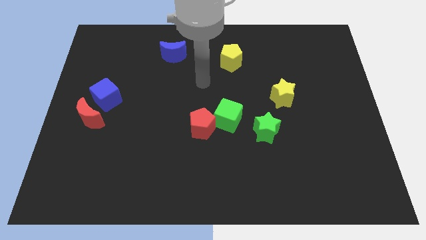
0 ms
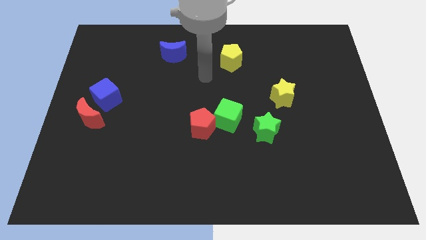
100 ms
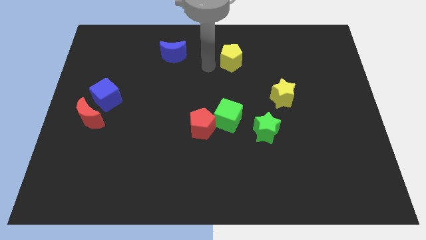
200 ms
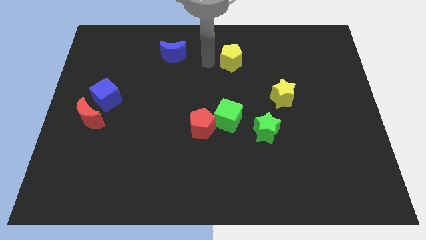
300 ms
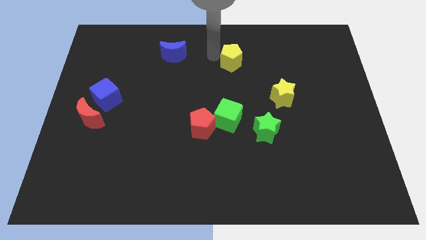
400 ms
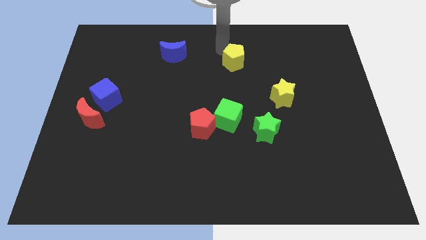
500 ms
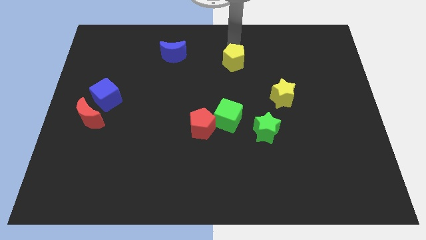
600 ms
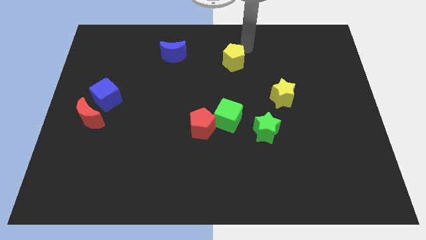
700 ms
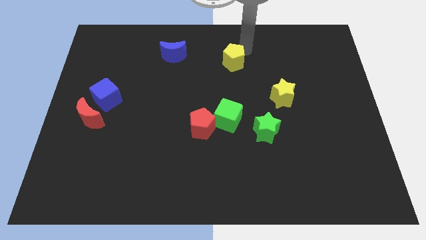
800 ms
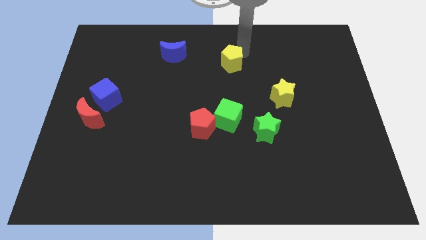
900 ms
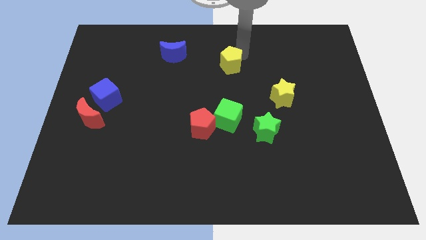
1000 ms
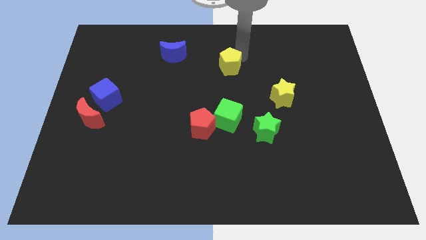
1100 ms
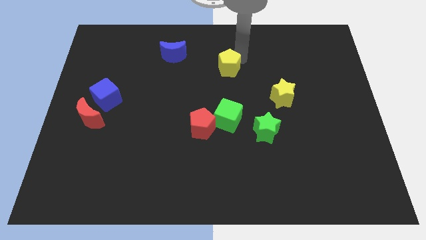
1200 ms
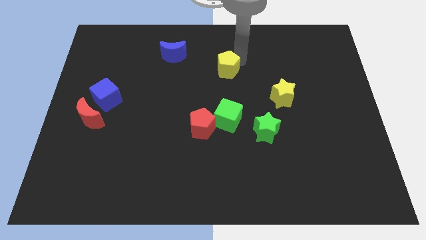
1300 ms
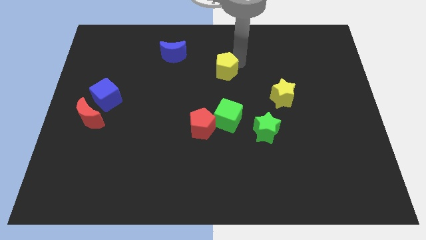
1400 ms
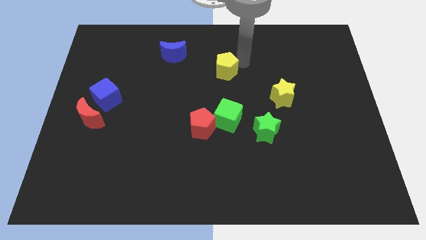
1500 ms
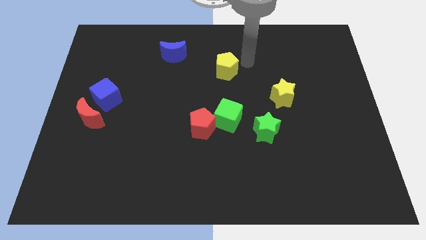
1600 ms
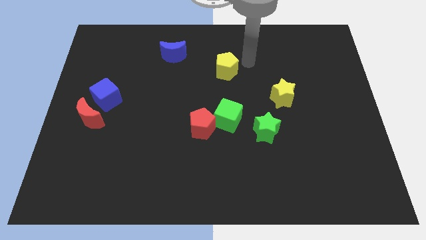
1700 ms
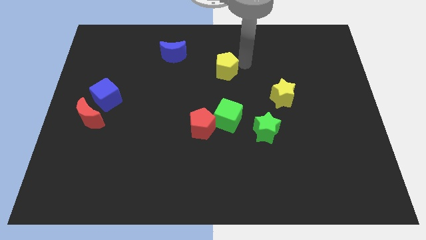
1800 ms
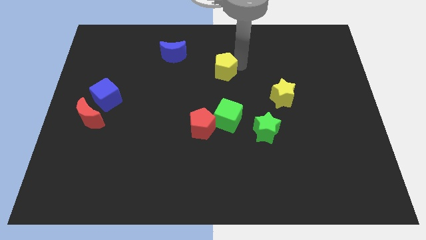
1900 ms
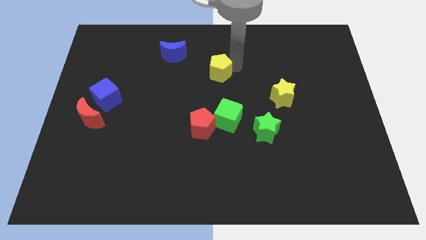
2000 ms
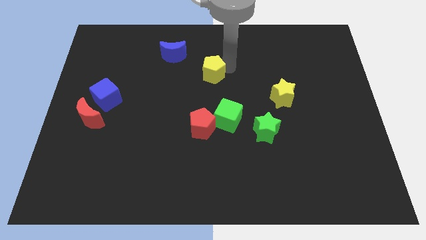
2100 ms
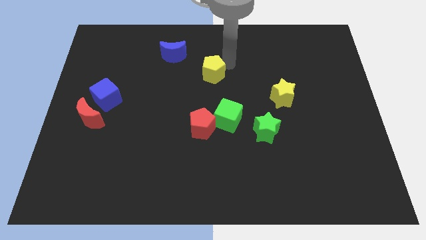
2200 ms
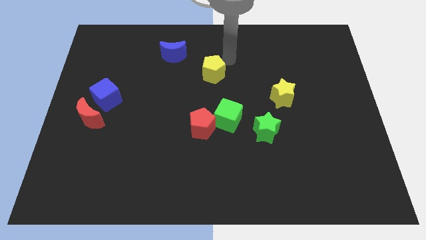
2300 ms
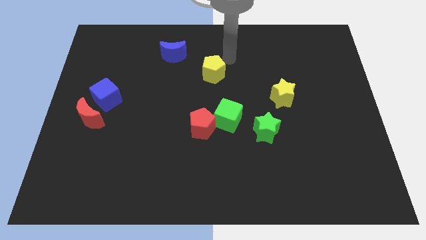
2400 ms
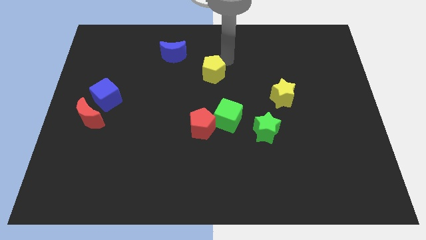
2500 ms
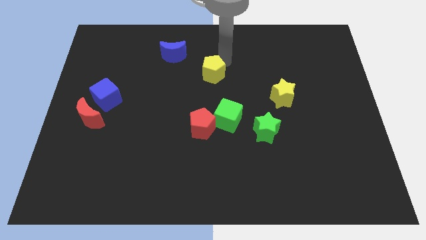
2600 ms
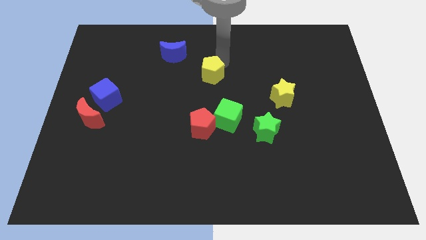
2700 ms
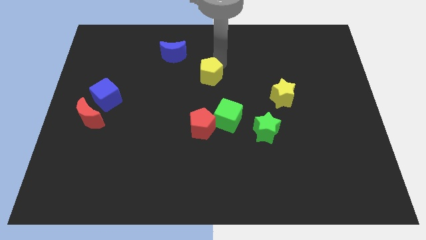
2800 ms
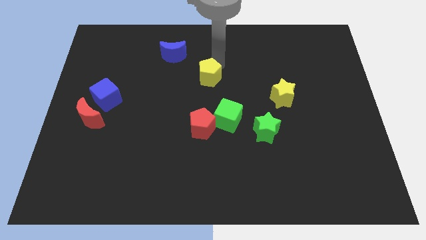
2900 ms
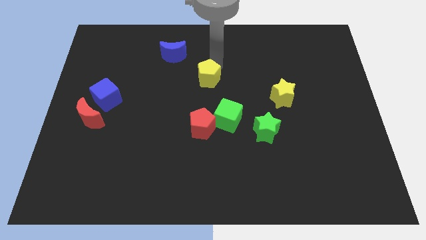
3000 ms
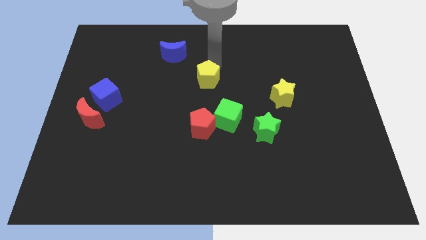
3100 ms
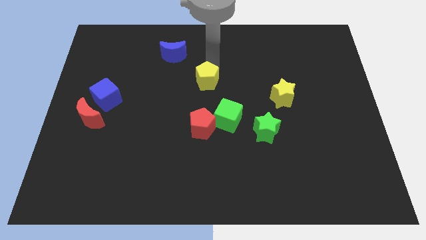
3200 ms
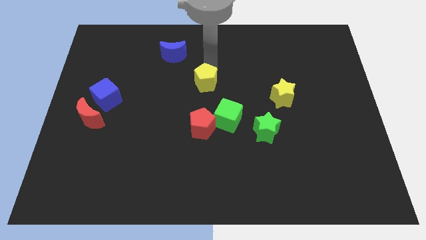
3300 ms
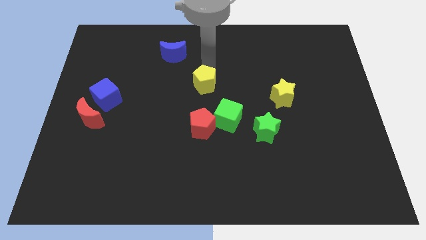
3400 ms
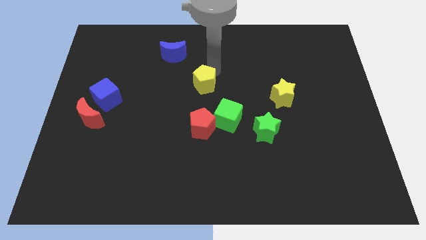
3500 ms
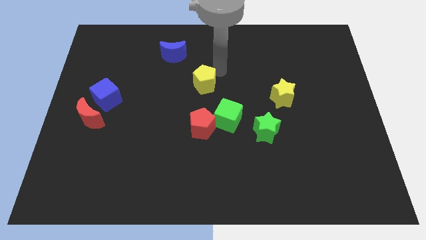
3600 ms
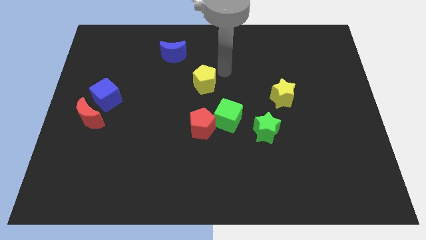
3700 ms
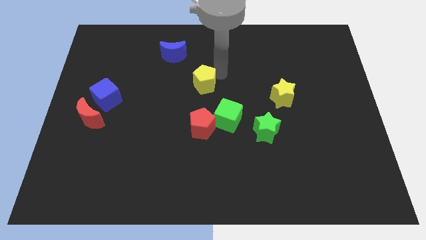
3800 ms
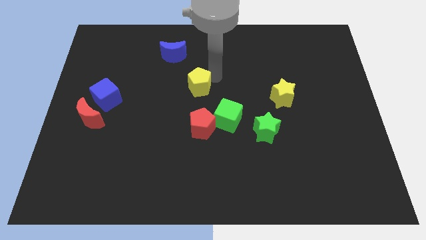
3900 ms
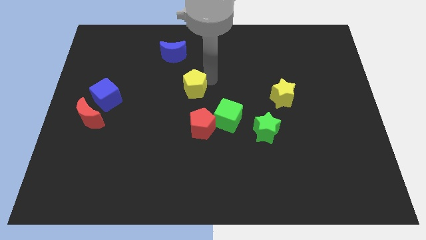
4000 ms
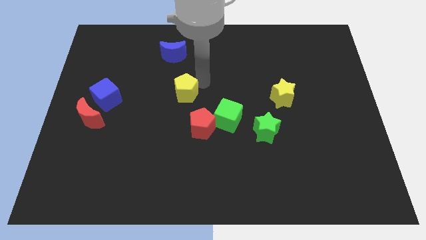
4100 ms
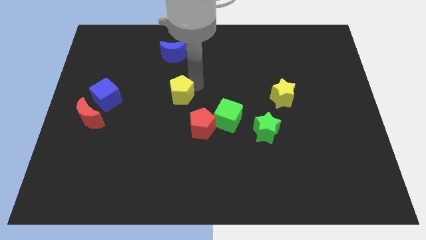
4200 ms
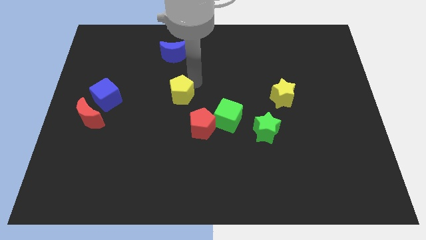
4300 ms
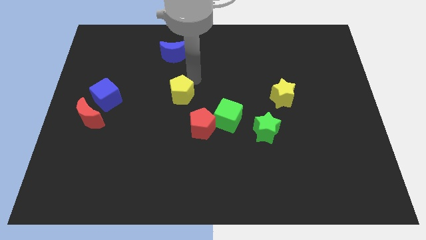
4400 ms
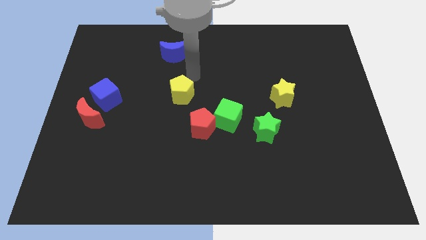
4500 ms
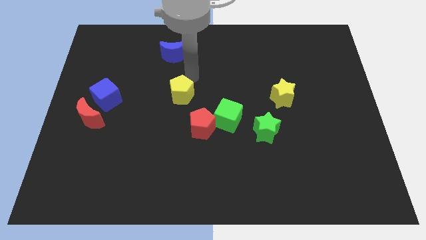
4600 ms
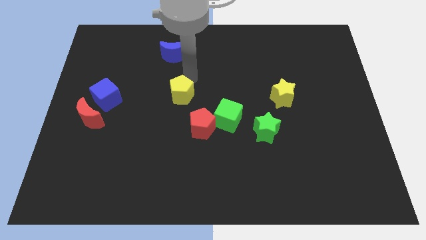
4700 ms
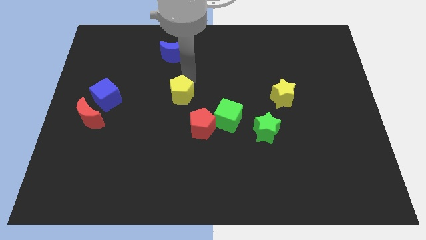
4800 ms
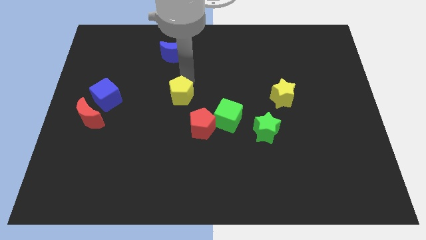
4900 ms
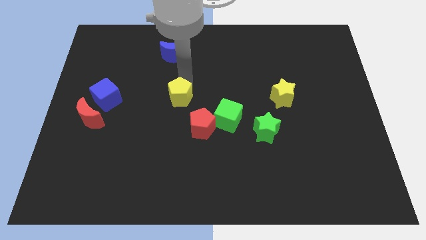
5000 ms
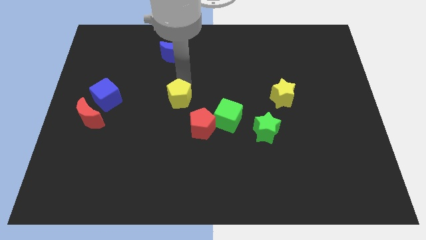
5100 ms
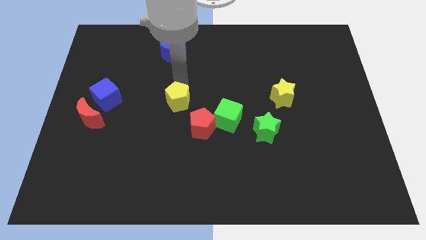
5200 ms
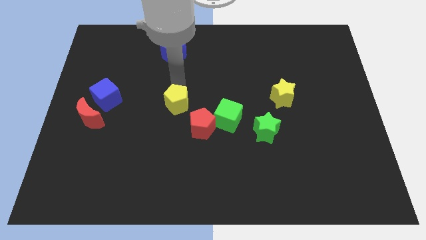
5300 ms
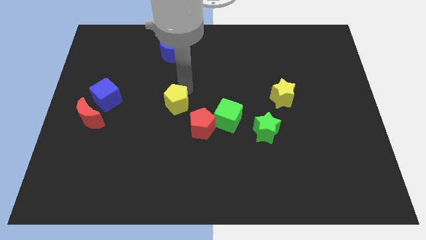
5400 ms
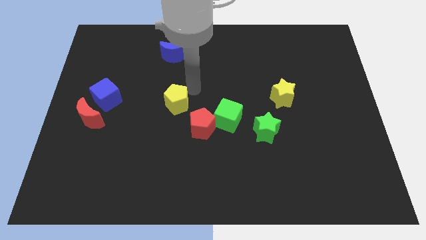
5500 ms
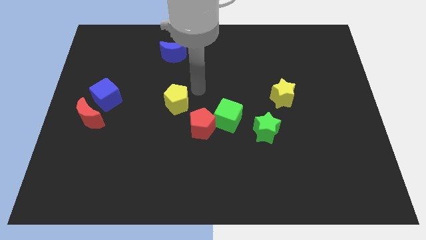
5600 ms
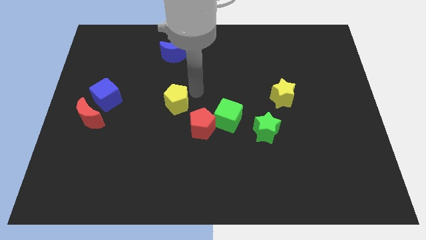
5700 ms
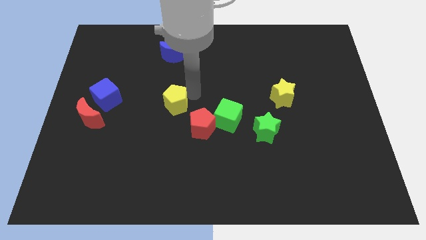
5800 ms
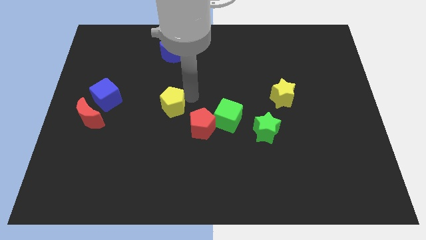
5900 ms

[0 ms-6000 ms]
push the yellow pentagon downwards and to the left diagonally

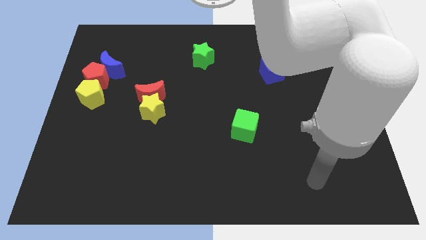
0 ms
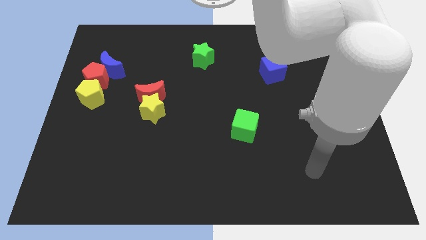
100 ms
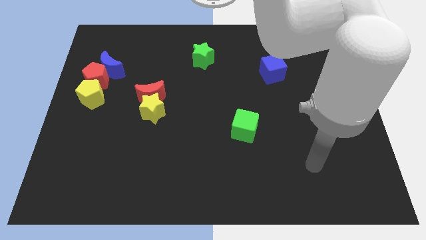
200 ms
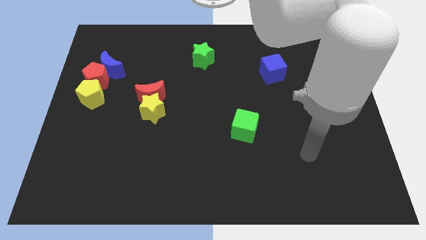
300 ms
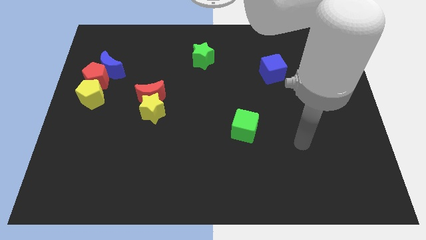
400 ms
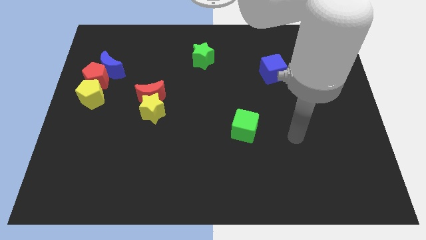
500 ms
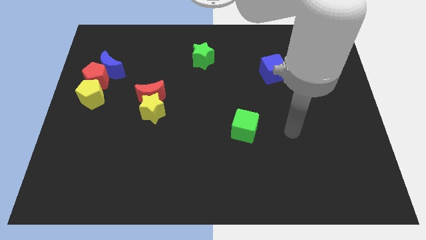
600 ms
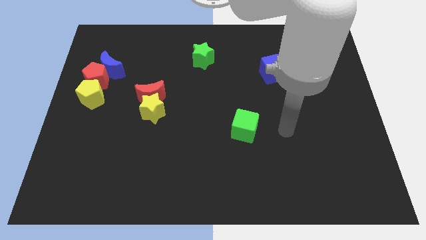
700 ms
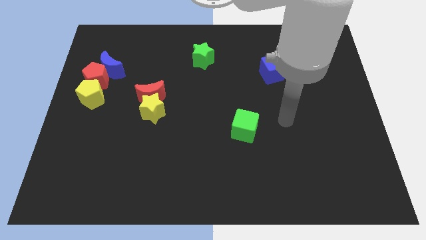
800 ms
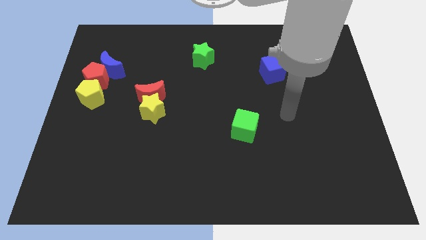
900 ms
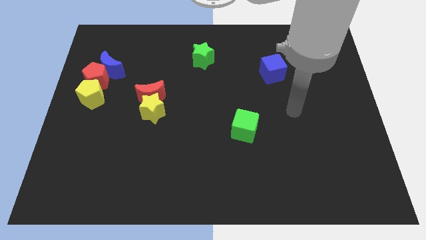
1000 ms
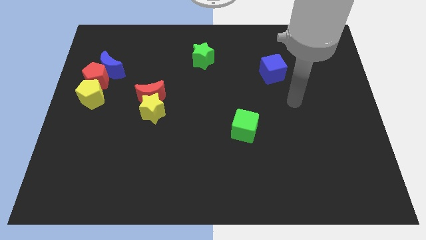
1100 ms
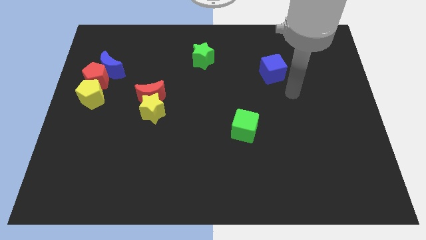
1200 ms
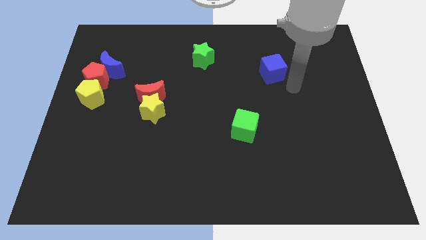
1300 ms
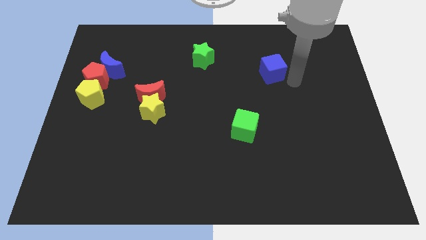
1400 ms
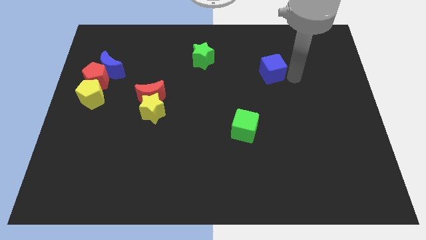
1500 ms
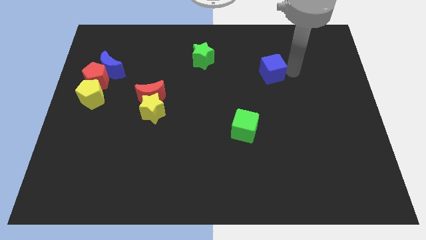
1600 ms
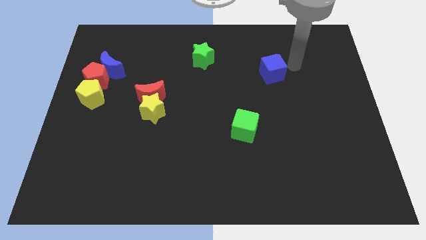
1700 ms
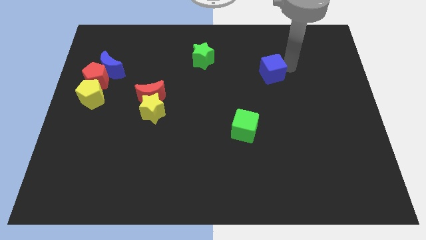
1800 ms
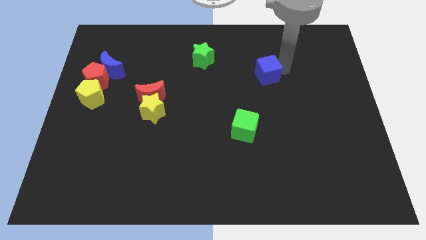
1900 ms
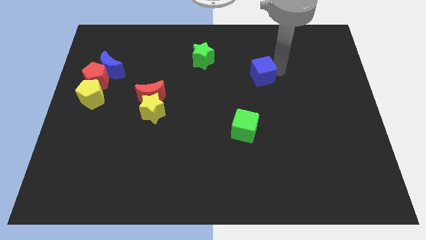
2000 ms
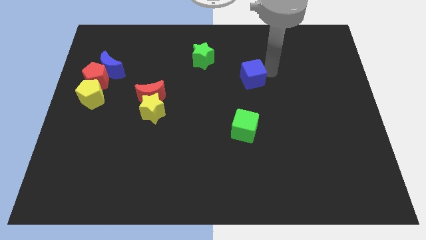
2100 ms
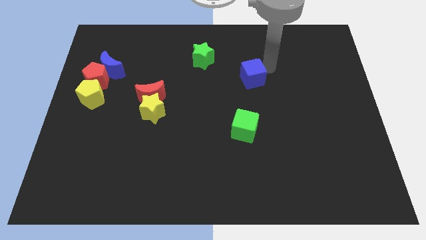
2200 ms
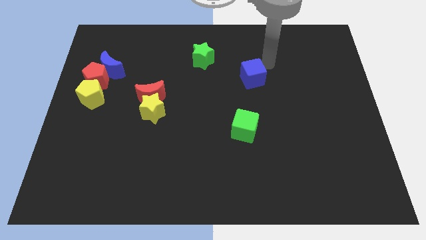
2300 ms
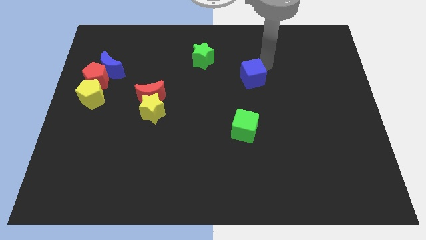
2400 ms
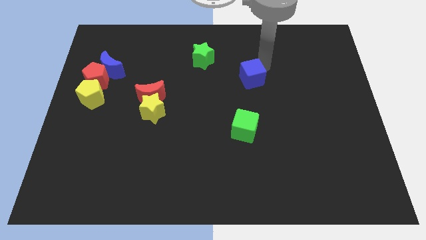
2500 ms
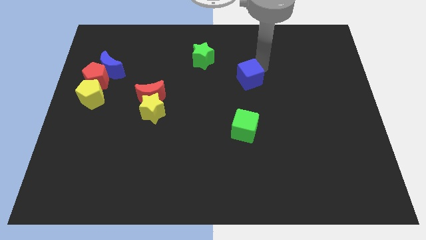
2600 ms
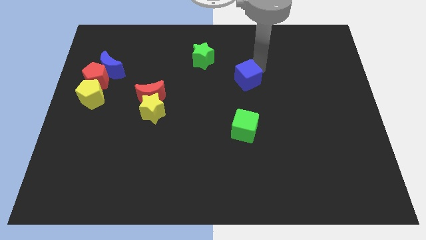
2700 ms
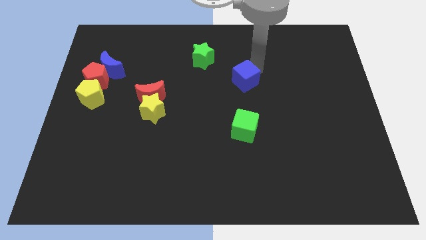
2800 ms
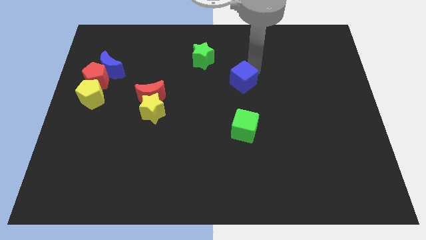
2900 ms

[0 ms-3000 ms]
slightly slide the blue cube downwards and then to the left
